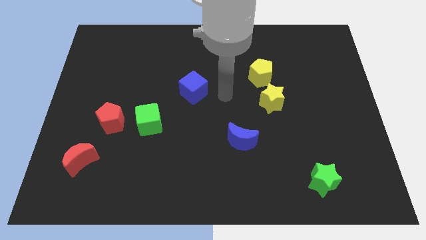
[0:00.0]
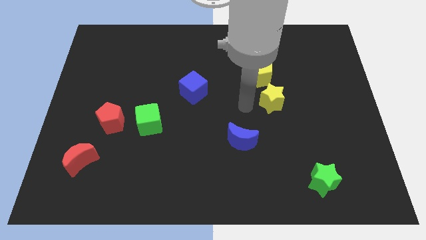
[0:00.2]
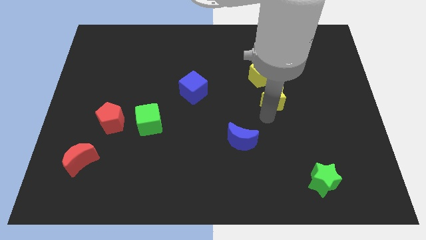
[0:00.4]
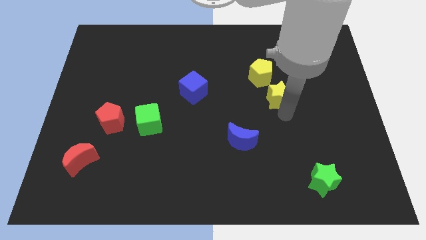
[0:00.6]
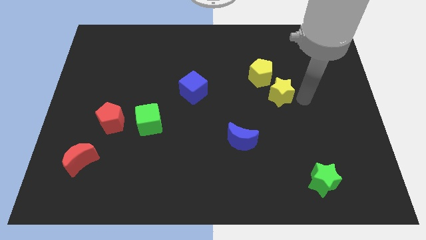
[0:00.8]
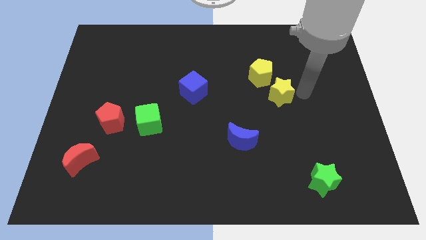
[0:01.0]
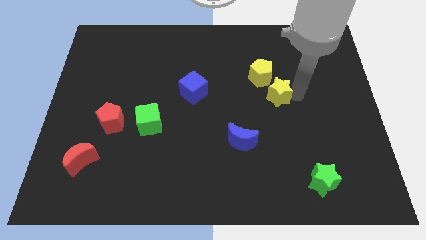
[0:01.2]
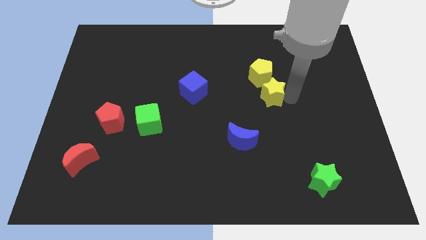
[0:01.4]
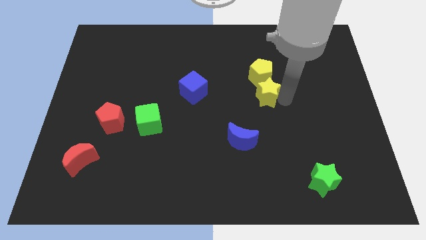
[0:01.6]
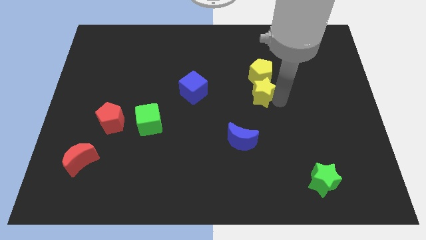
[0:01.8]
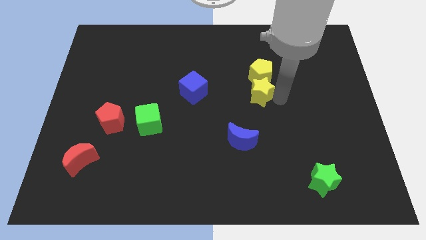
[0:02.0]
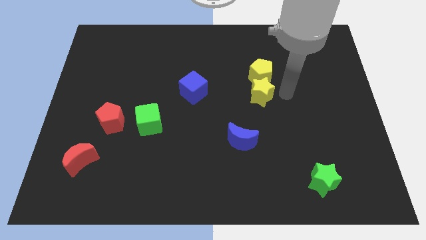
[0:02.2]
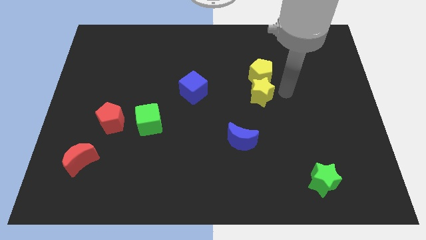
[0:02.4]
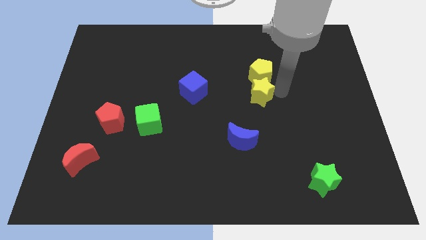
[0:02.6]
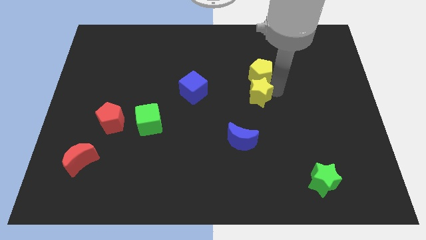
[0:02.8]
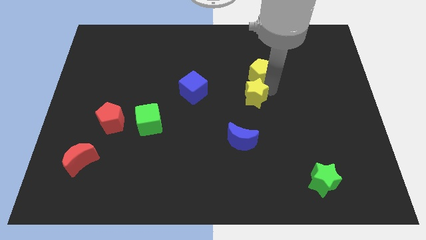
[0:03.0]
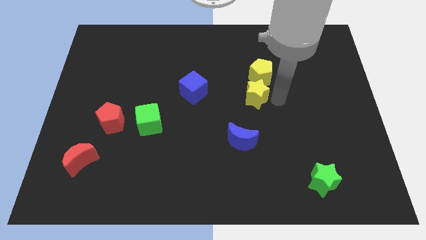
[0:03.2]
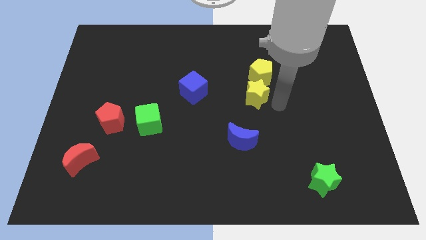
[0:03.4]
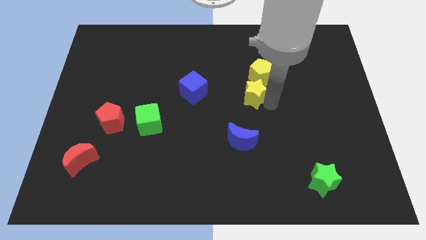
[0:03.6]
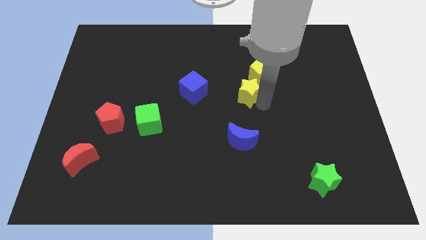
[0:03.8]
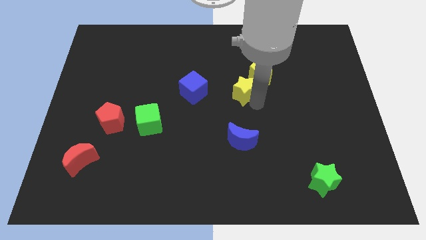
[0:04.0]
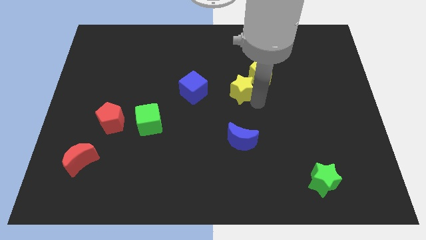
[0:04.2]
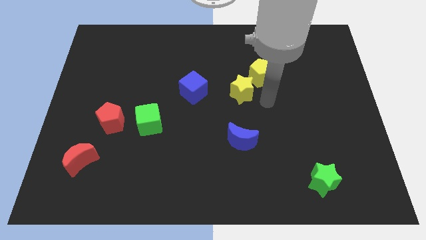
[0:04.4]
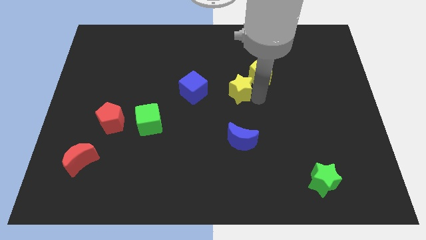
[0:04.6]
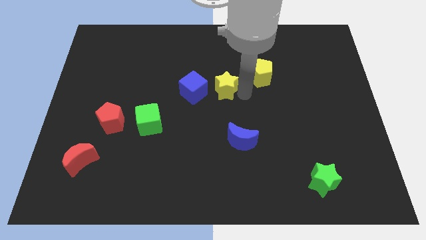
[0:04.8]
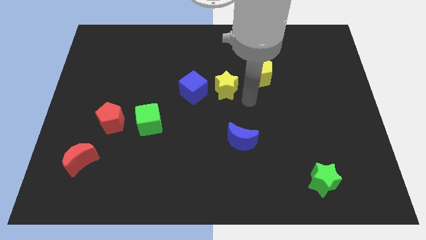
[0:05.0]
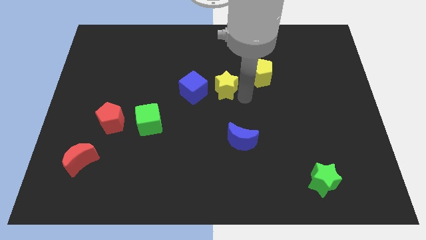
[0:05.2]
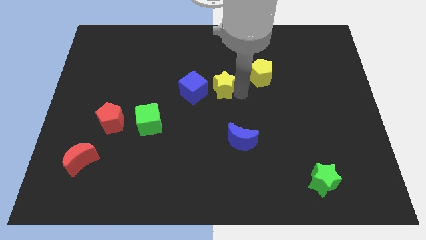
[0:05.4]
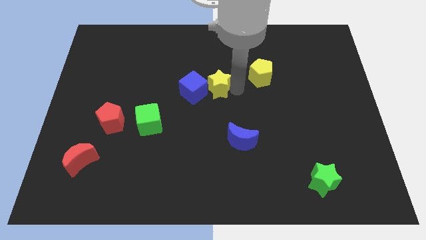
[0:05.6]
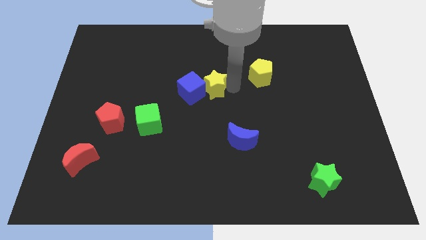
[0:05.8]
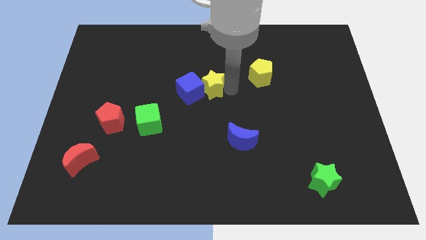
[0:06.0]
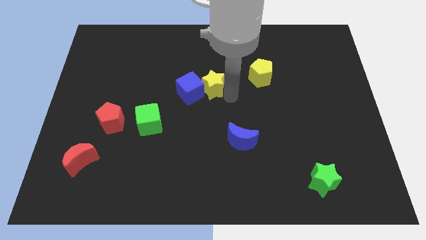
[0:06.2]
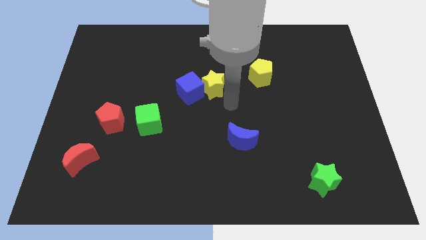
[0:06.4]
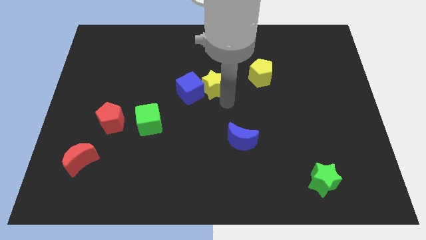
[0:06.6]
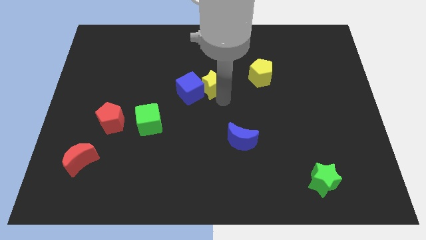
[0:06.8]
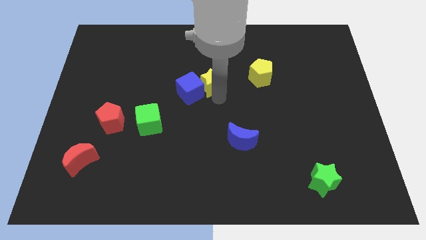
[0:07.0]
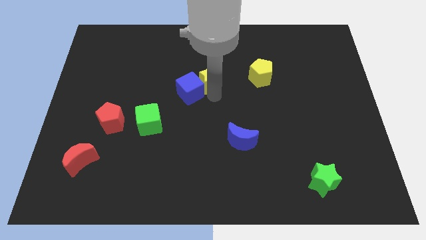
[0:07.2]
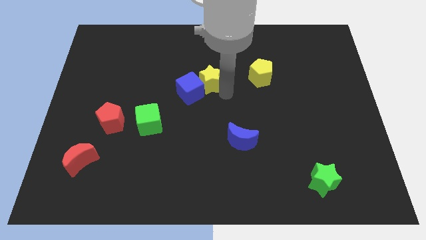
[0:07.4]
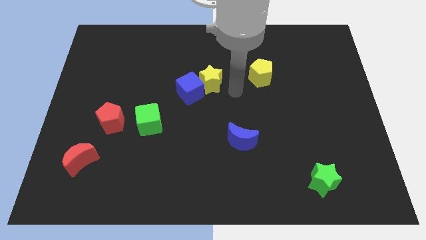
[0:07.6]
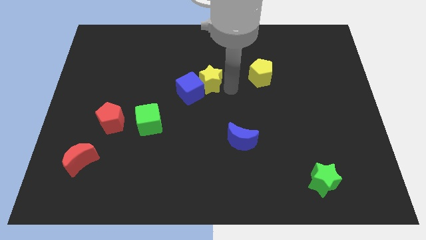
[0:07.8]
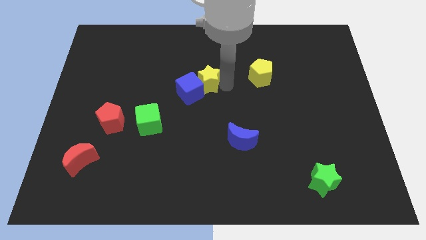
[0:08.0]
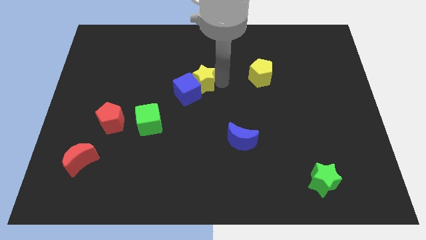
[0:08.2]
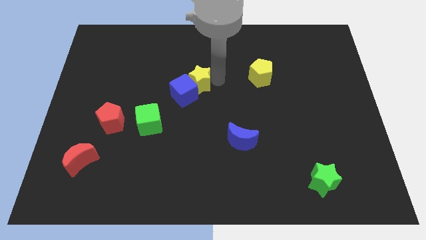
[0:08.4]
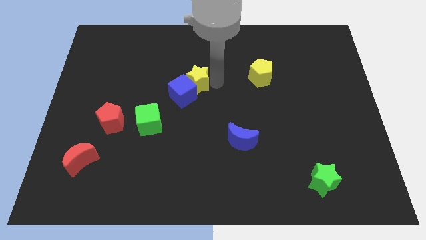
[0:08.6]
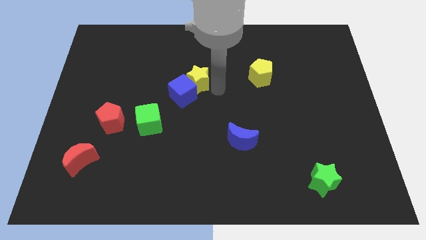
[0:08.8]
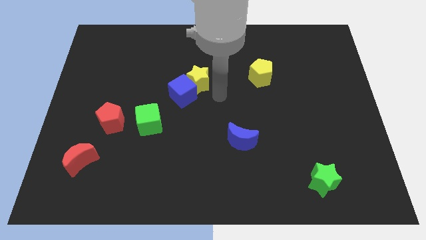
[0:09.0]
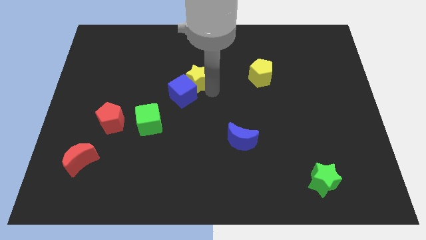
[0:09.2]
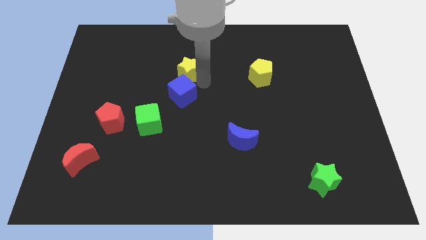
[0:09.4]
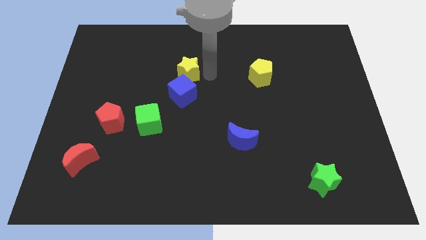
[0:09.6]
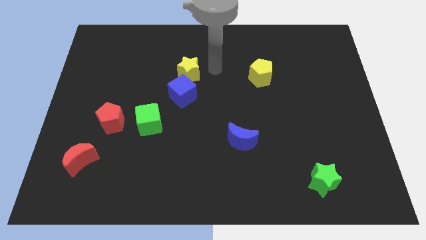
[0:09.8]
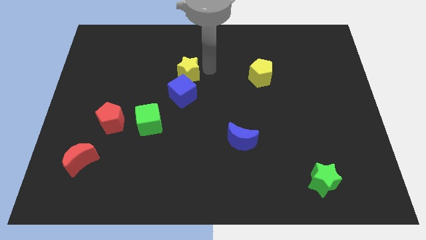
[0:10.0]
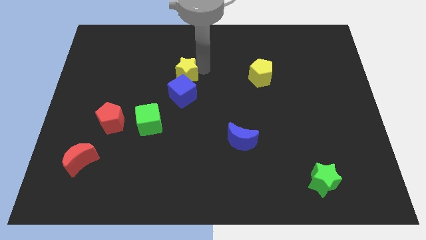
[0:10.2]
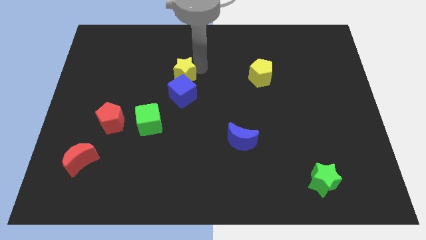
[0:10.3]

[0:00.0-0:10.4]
move the yellow star to the top left of the blue cube

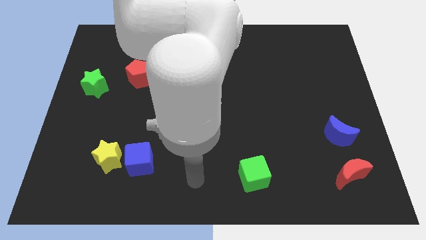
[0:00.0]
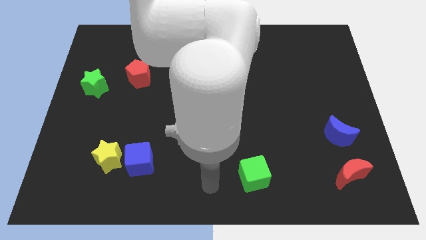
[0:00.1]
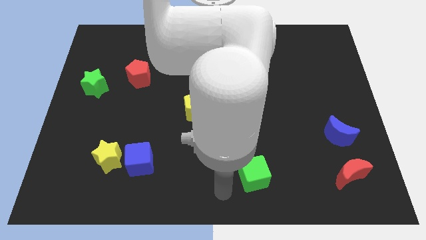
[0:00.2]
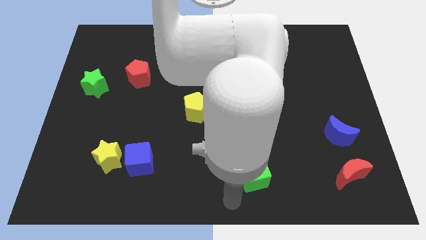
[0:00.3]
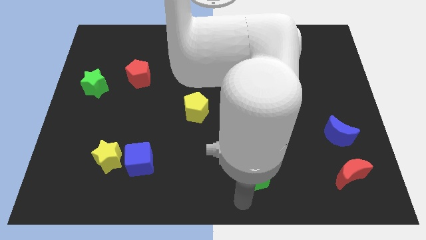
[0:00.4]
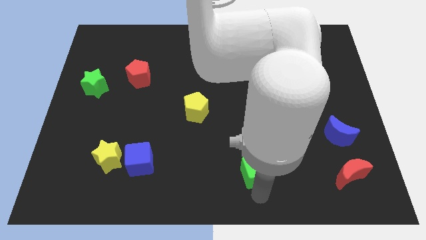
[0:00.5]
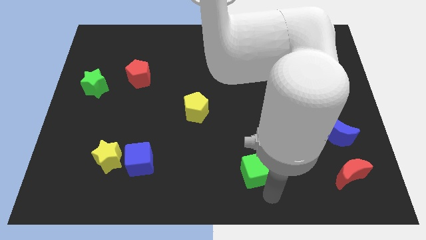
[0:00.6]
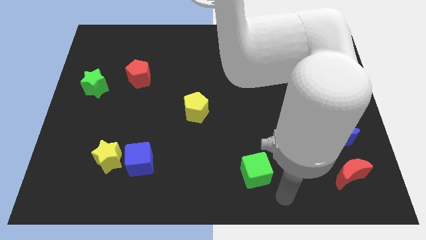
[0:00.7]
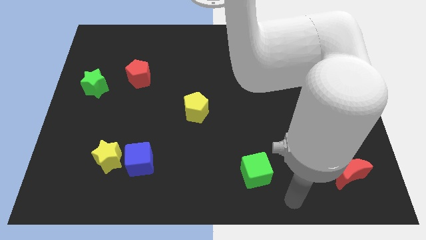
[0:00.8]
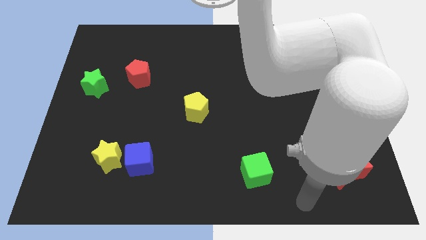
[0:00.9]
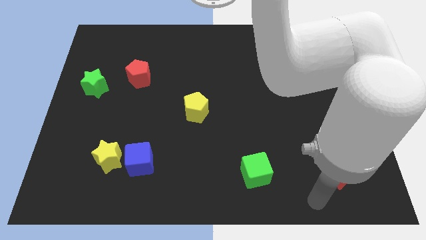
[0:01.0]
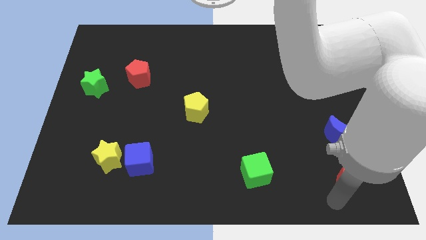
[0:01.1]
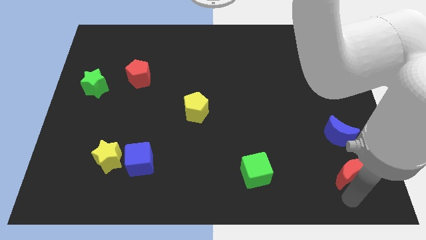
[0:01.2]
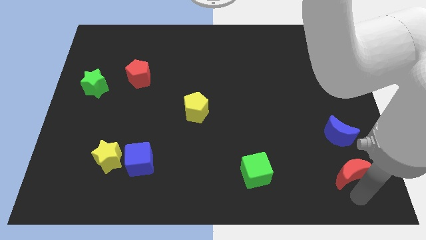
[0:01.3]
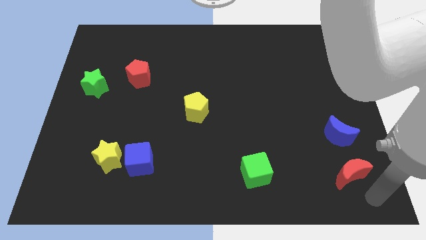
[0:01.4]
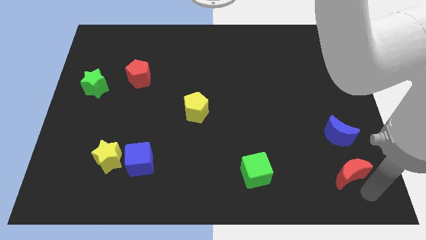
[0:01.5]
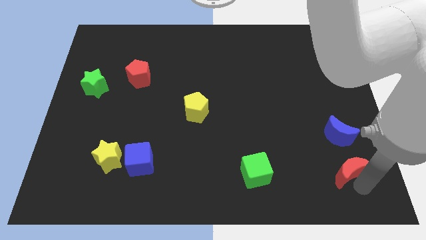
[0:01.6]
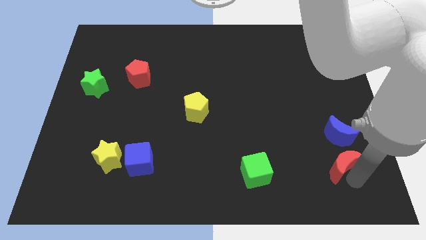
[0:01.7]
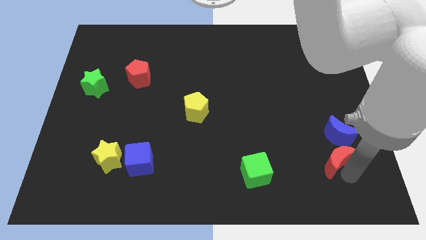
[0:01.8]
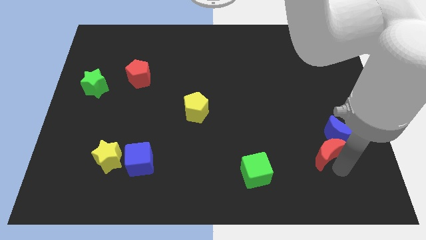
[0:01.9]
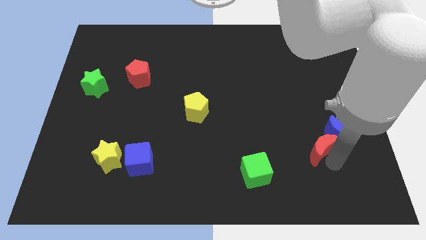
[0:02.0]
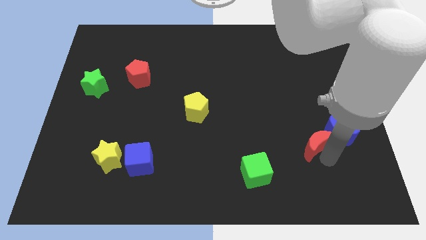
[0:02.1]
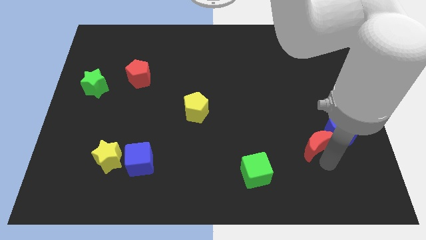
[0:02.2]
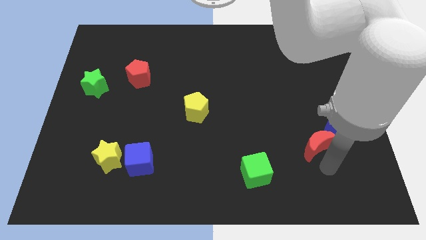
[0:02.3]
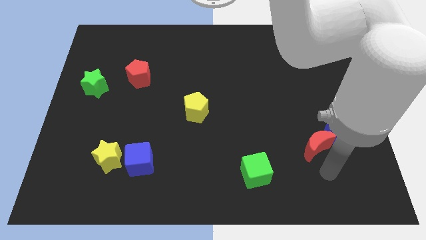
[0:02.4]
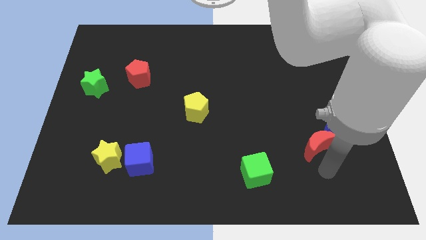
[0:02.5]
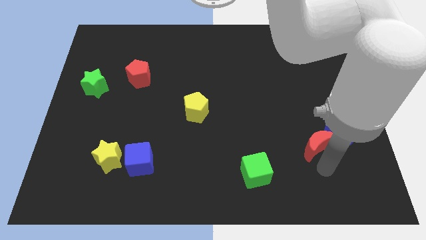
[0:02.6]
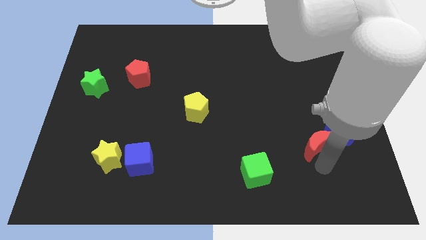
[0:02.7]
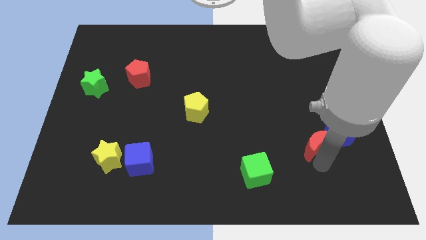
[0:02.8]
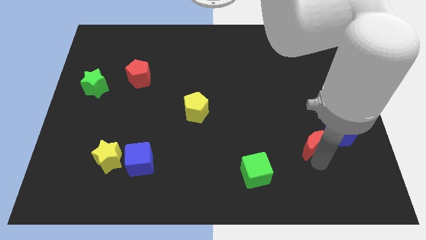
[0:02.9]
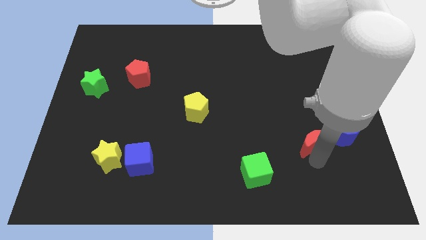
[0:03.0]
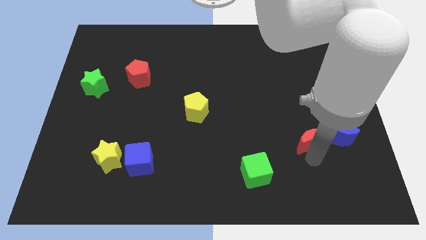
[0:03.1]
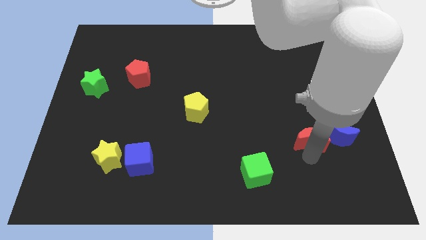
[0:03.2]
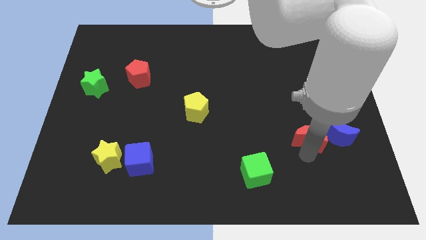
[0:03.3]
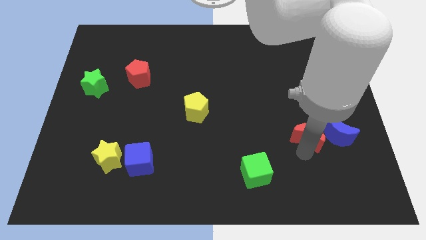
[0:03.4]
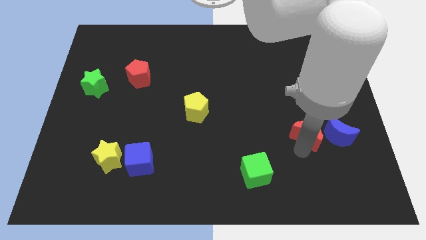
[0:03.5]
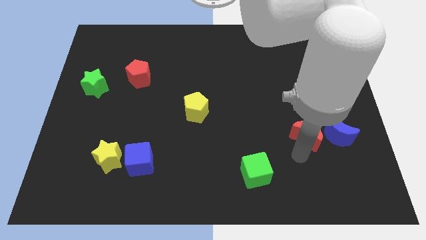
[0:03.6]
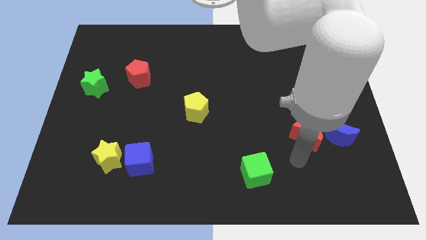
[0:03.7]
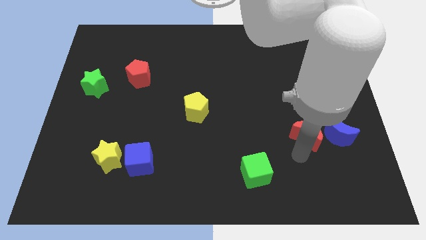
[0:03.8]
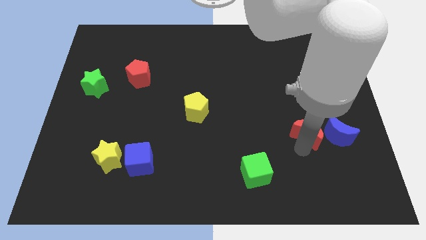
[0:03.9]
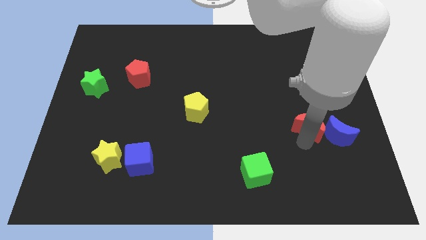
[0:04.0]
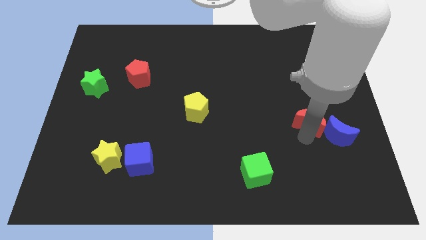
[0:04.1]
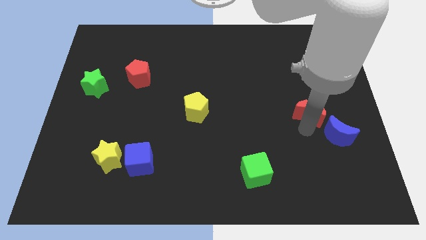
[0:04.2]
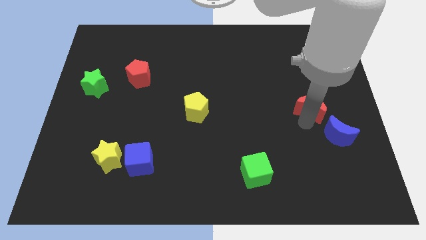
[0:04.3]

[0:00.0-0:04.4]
put the red moon to the top of the blue moon
